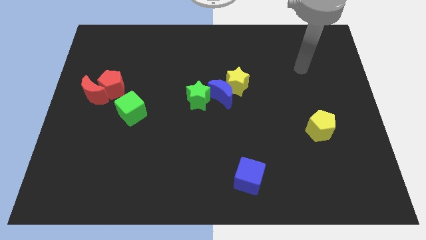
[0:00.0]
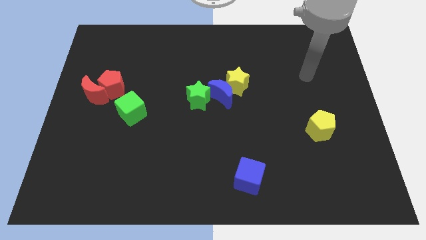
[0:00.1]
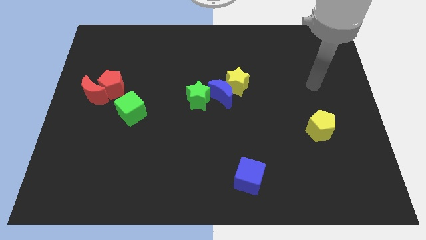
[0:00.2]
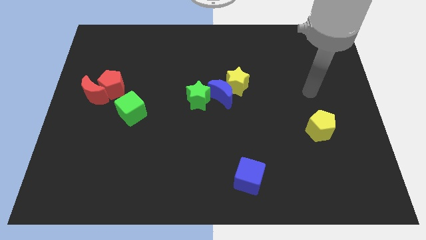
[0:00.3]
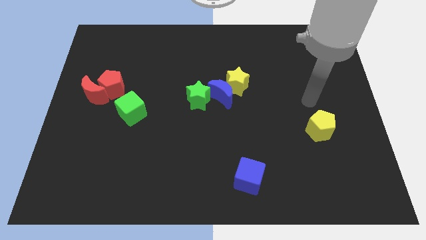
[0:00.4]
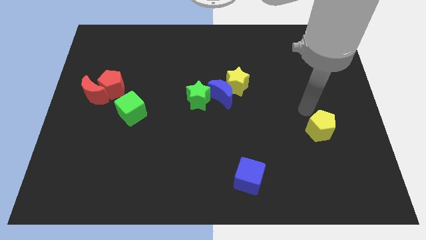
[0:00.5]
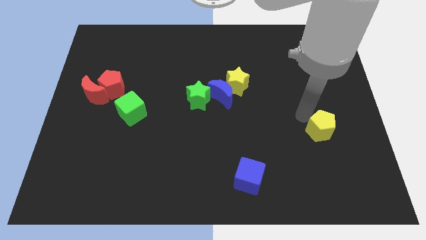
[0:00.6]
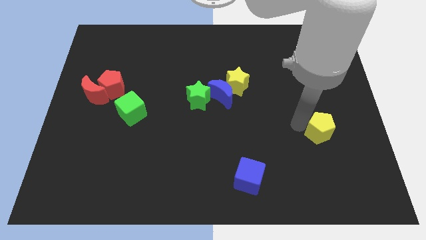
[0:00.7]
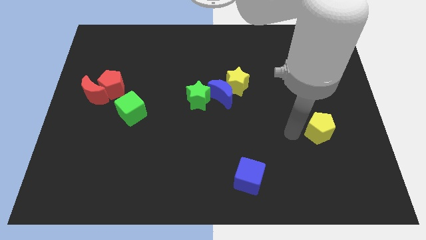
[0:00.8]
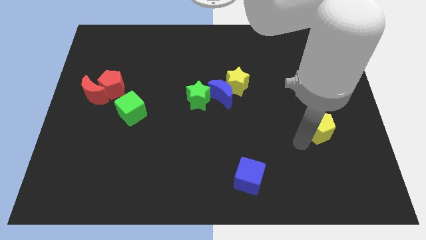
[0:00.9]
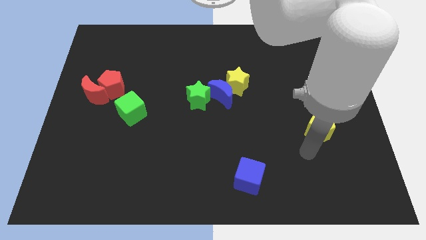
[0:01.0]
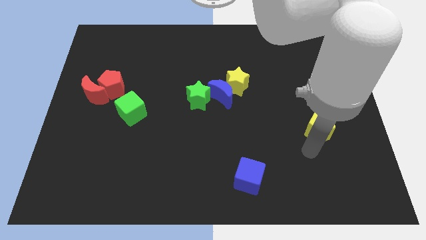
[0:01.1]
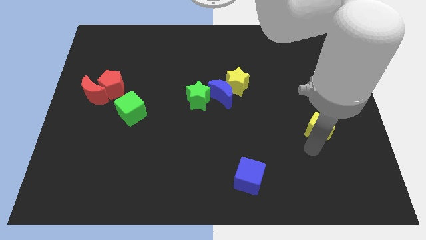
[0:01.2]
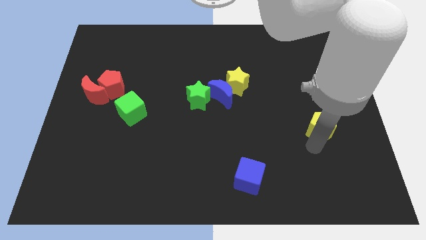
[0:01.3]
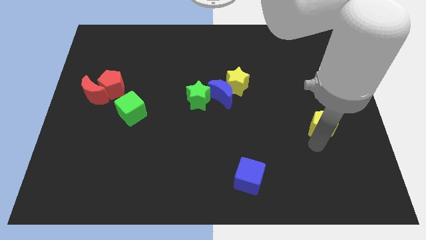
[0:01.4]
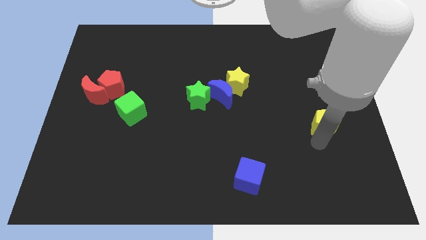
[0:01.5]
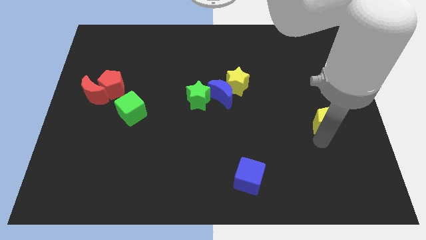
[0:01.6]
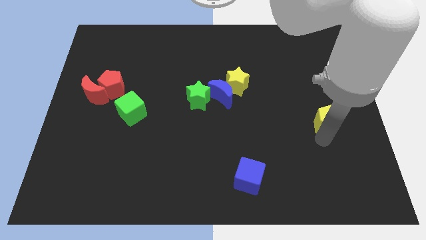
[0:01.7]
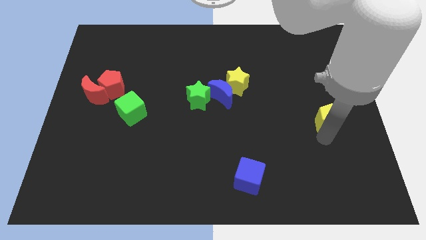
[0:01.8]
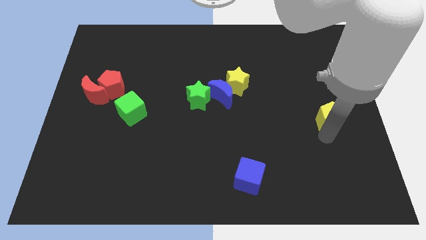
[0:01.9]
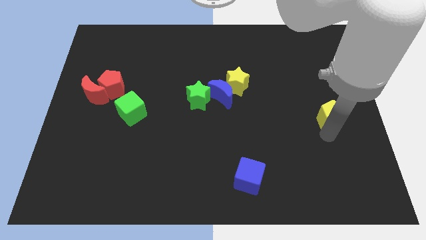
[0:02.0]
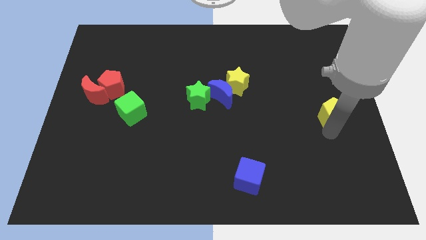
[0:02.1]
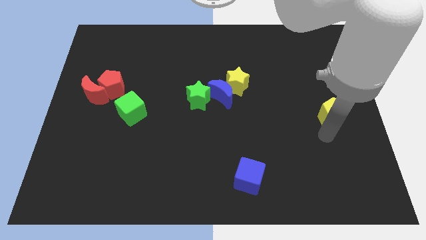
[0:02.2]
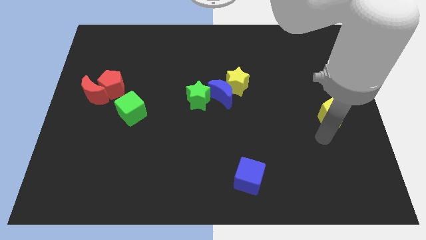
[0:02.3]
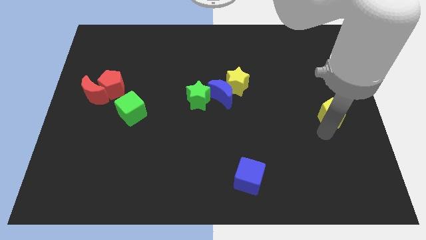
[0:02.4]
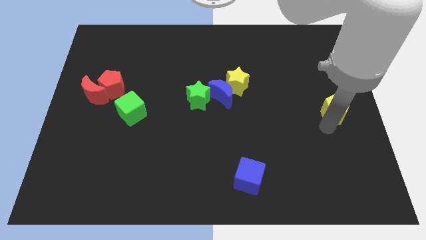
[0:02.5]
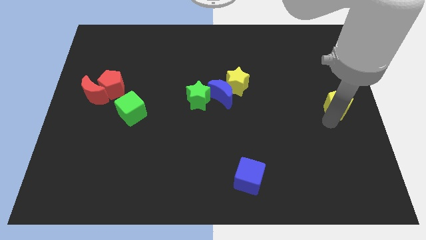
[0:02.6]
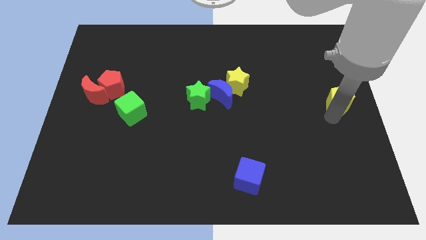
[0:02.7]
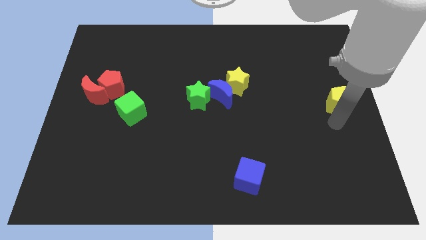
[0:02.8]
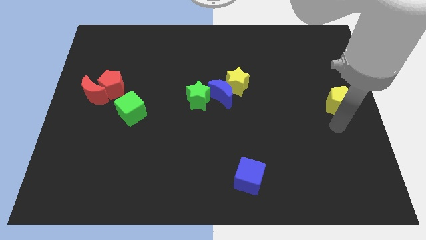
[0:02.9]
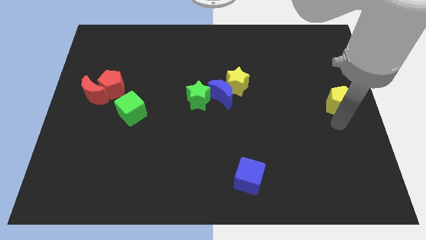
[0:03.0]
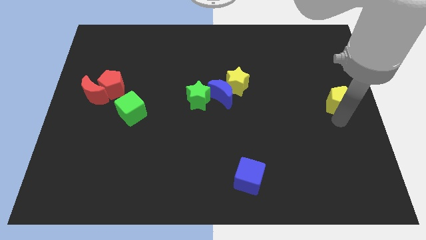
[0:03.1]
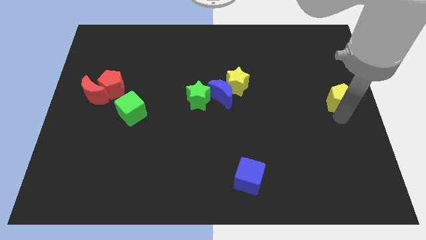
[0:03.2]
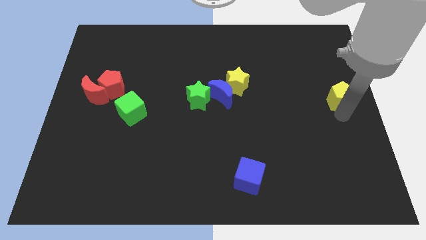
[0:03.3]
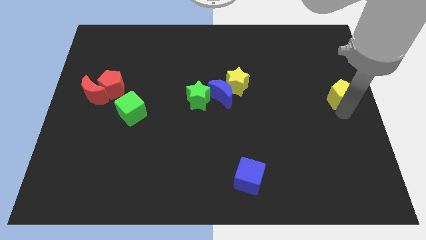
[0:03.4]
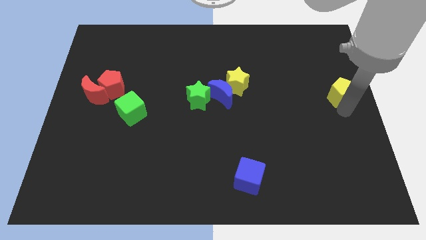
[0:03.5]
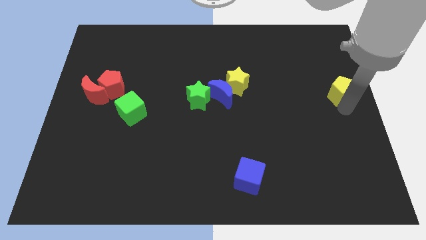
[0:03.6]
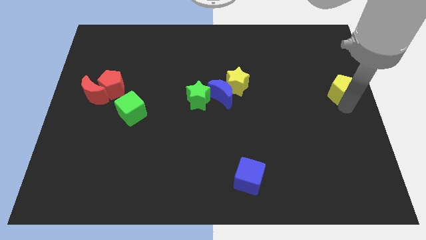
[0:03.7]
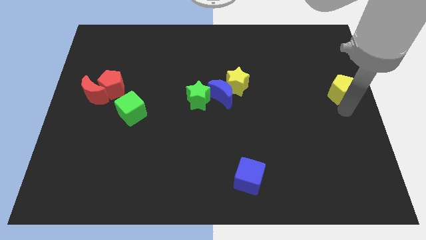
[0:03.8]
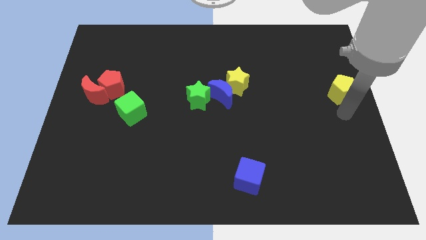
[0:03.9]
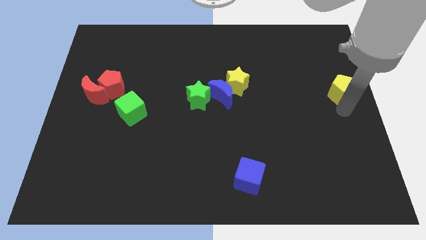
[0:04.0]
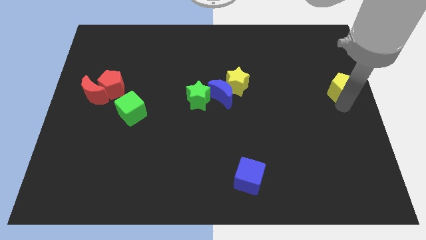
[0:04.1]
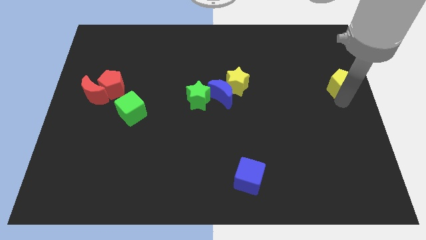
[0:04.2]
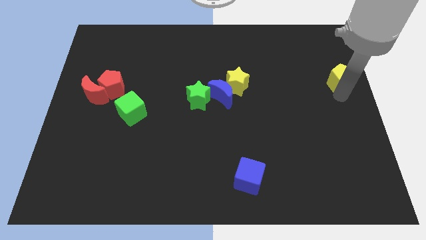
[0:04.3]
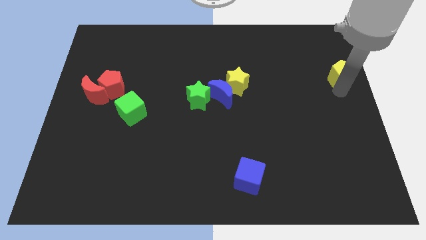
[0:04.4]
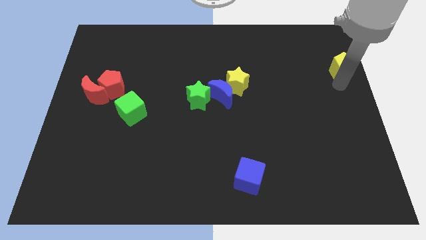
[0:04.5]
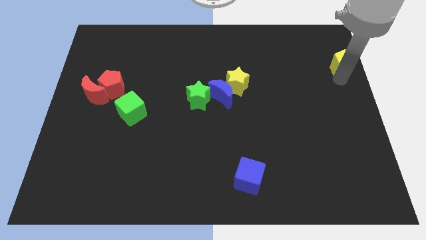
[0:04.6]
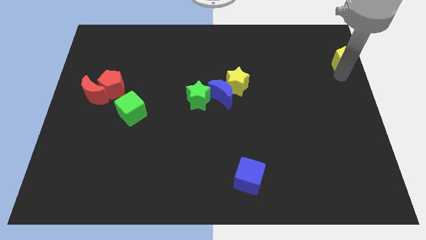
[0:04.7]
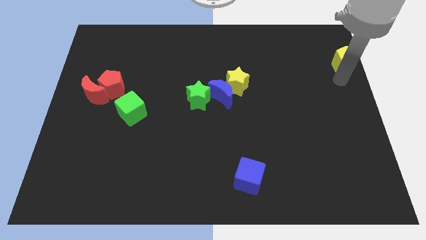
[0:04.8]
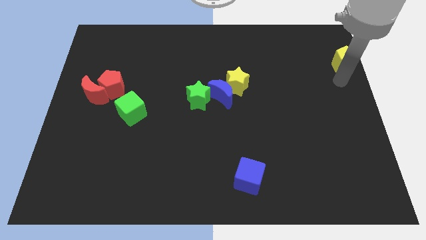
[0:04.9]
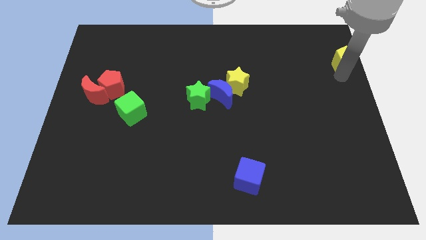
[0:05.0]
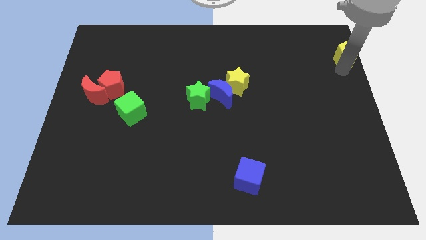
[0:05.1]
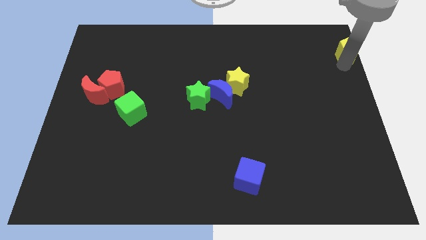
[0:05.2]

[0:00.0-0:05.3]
push the yellow pentagon to the top right corner

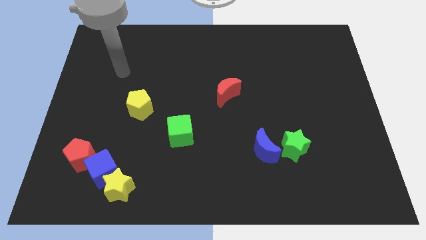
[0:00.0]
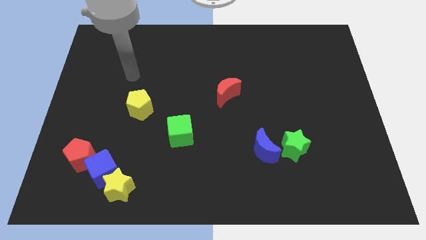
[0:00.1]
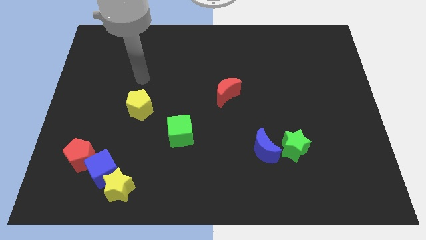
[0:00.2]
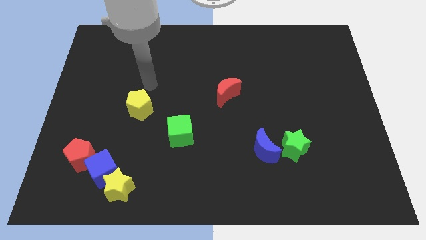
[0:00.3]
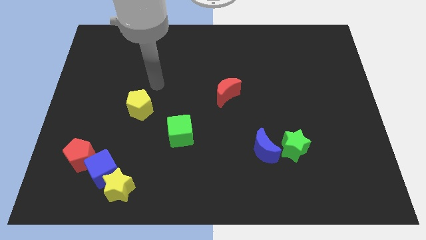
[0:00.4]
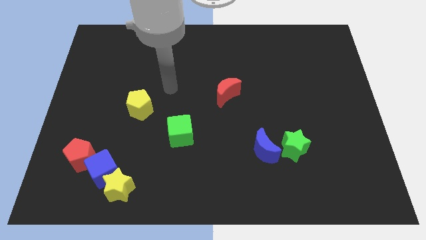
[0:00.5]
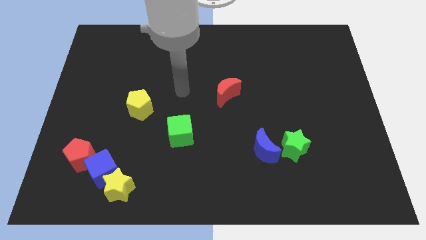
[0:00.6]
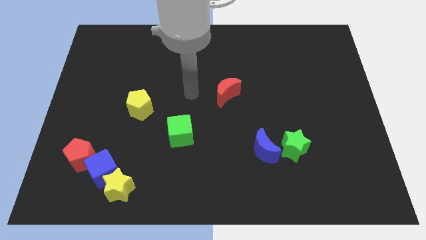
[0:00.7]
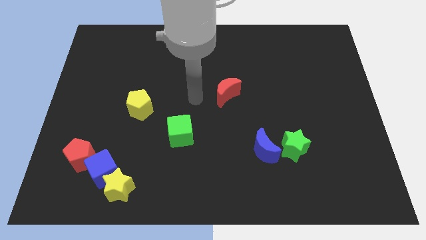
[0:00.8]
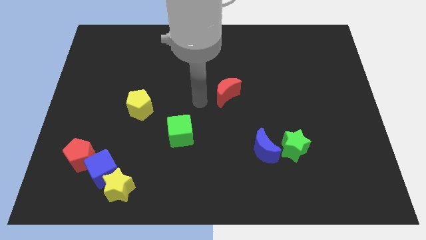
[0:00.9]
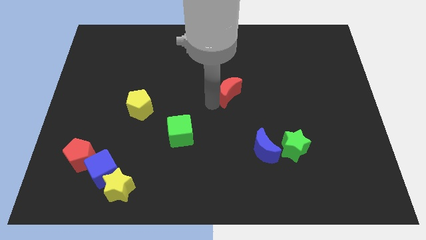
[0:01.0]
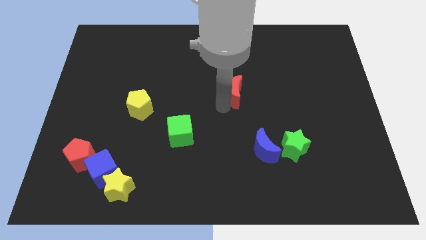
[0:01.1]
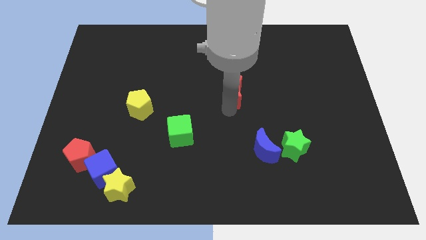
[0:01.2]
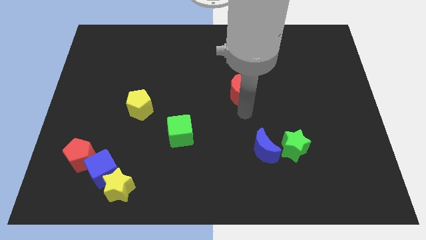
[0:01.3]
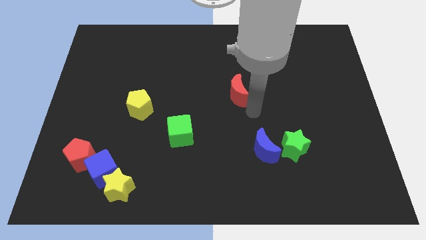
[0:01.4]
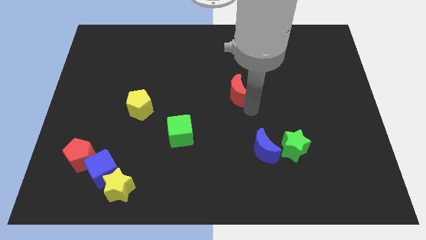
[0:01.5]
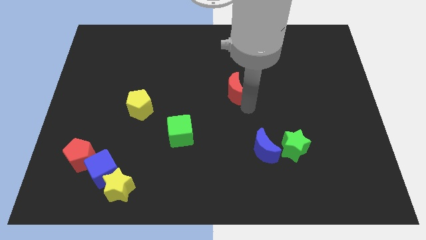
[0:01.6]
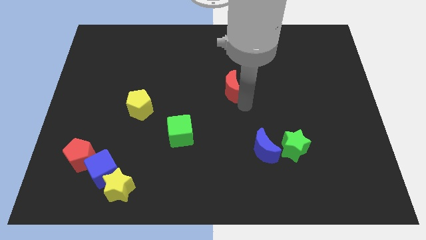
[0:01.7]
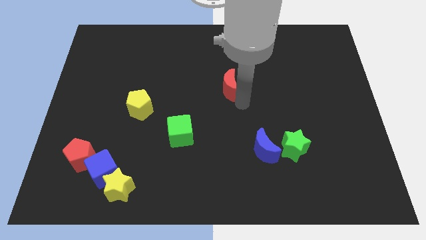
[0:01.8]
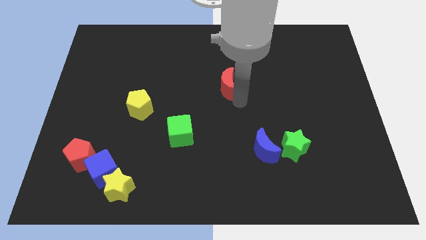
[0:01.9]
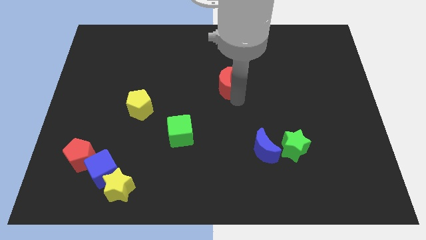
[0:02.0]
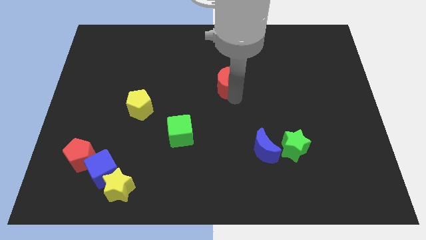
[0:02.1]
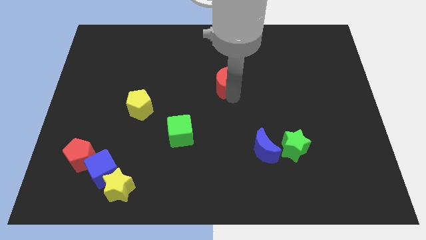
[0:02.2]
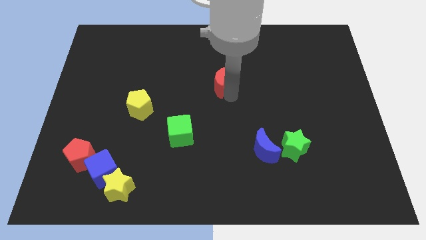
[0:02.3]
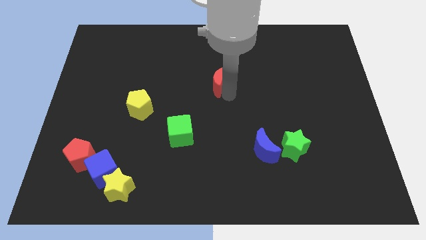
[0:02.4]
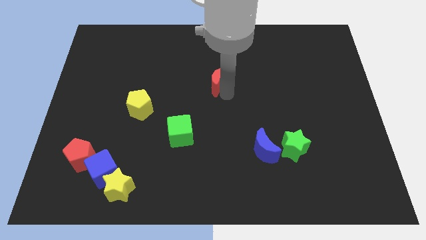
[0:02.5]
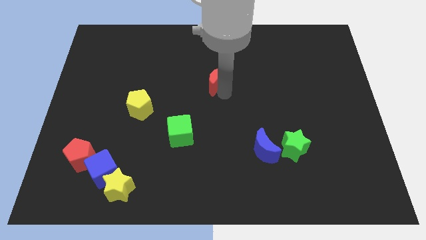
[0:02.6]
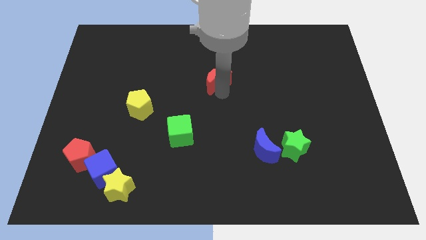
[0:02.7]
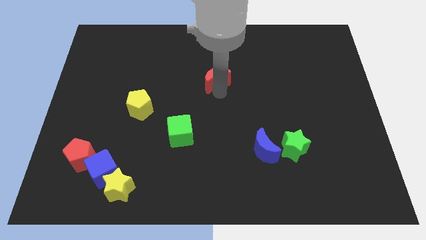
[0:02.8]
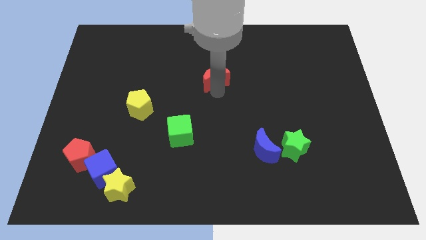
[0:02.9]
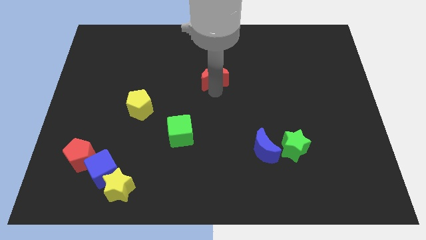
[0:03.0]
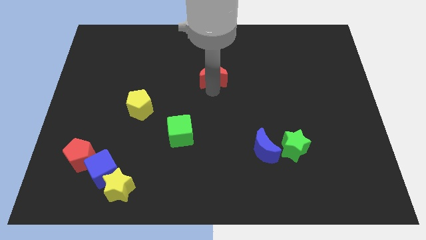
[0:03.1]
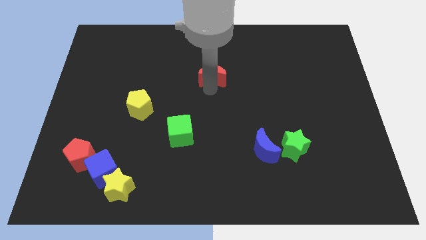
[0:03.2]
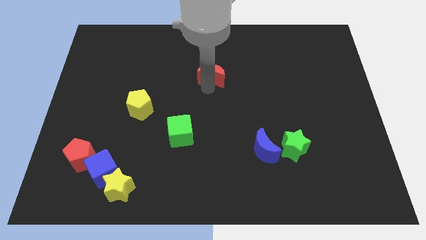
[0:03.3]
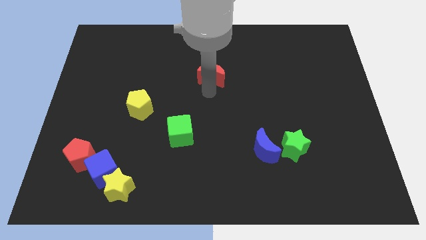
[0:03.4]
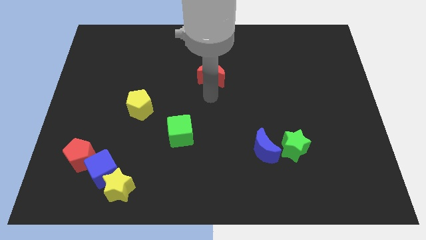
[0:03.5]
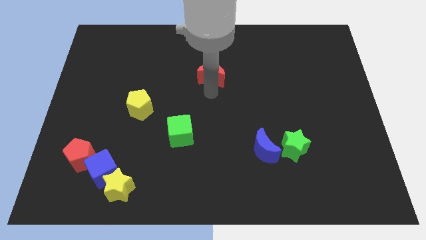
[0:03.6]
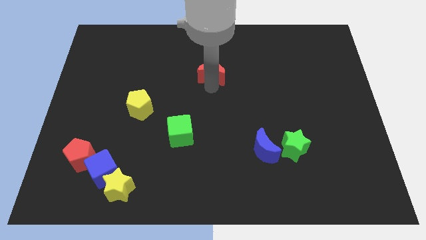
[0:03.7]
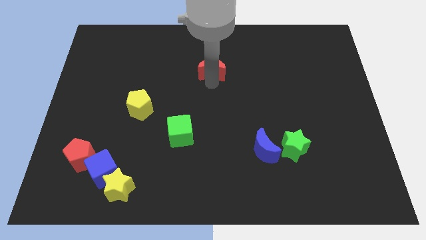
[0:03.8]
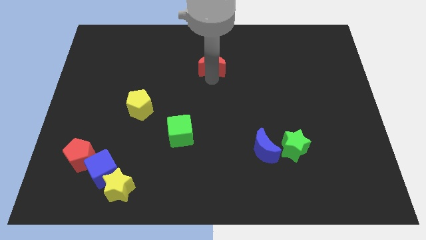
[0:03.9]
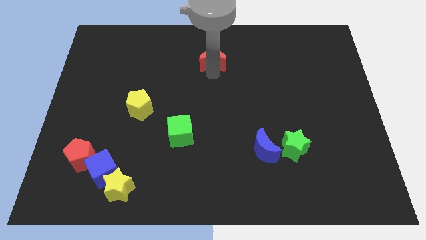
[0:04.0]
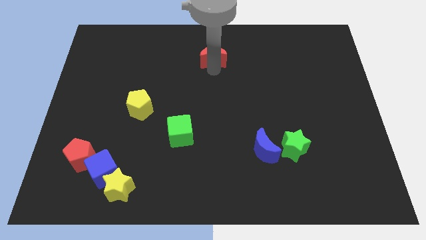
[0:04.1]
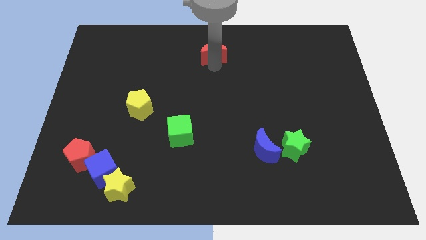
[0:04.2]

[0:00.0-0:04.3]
move the red moon to the top
